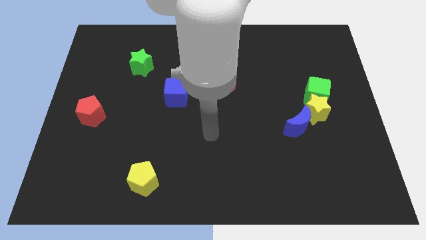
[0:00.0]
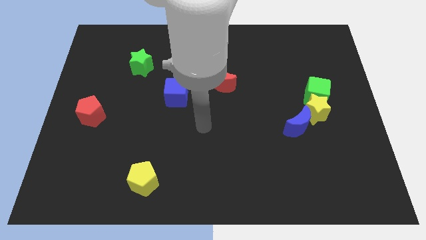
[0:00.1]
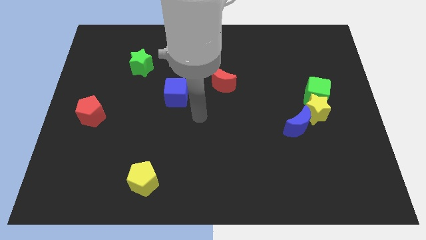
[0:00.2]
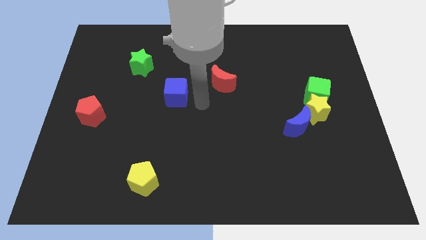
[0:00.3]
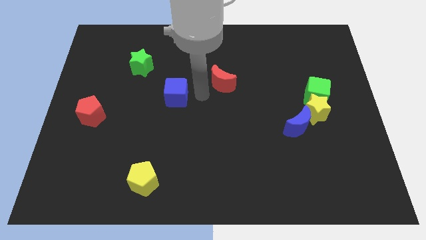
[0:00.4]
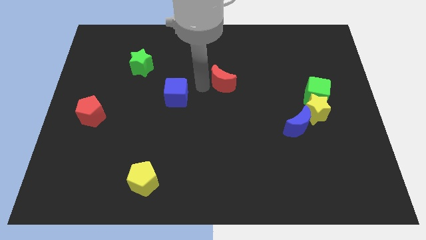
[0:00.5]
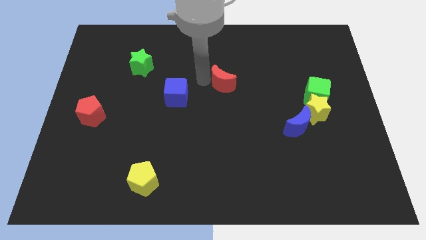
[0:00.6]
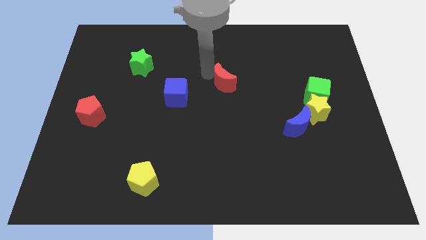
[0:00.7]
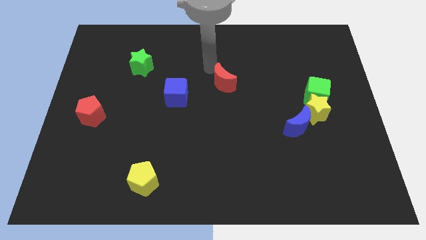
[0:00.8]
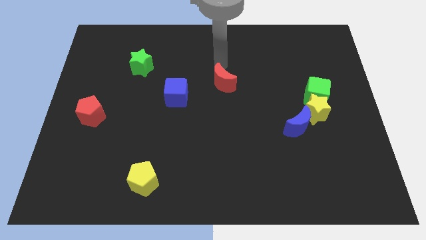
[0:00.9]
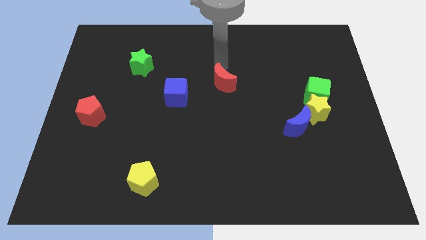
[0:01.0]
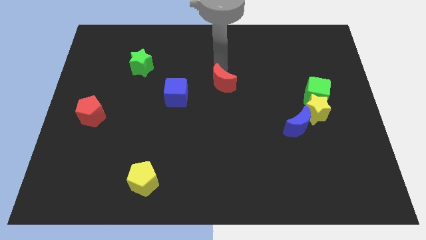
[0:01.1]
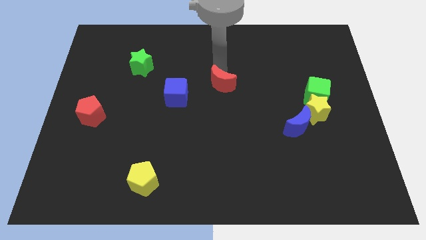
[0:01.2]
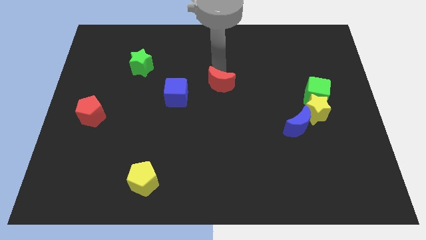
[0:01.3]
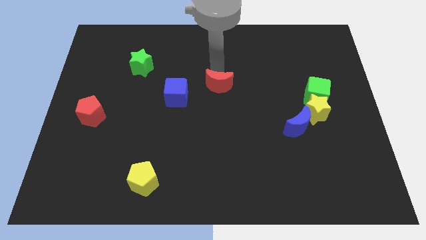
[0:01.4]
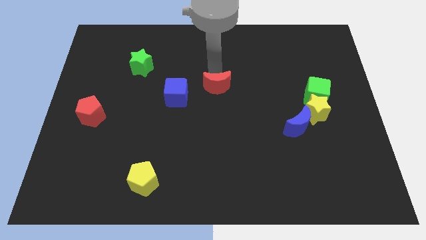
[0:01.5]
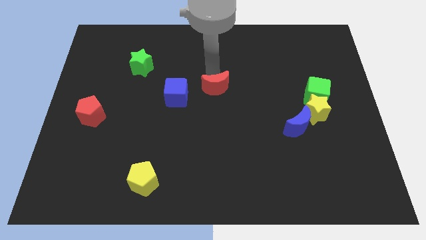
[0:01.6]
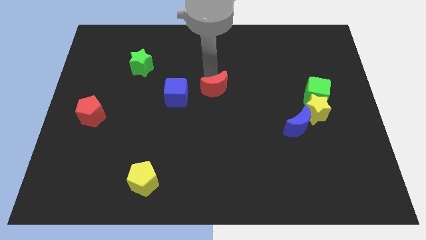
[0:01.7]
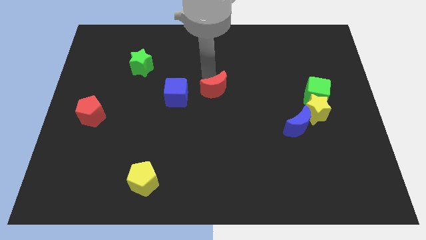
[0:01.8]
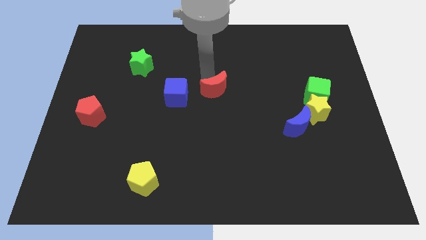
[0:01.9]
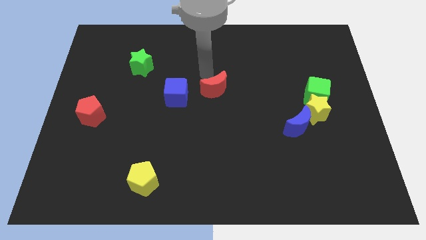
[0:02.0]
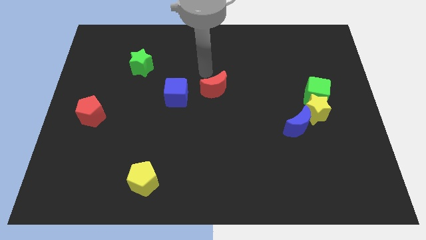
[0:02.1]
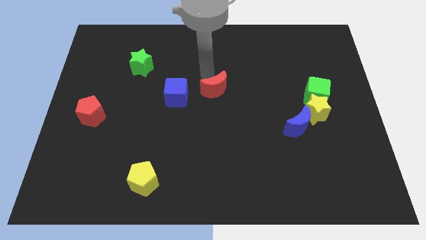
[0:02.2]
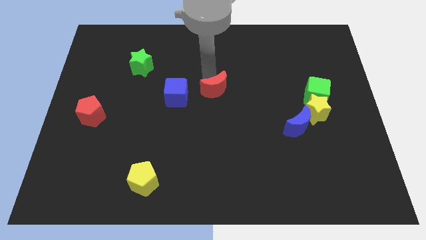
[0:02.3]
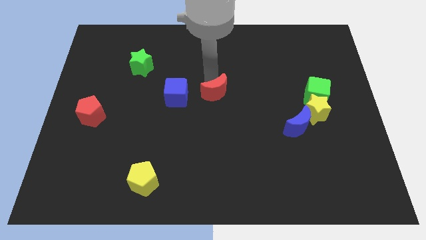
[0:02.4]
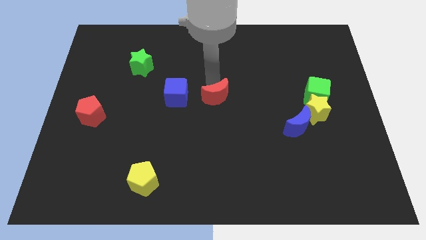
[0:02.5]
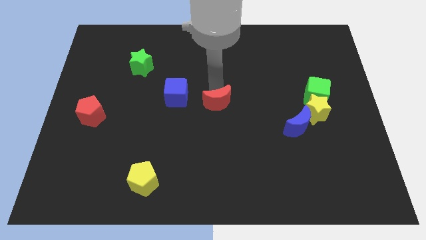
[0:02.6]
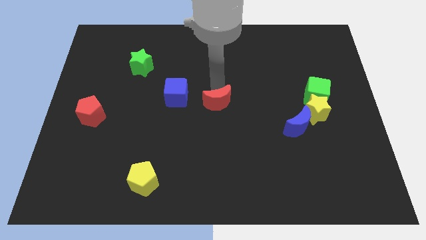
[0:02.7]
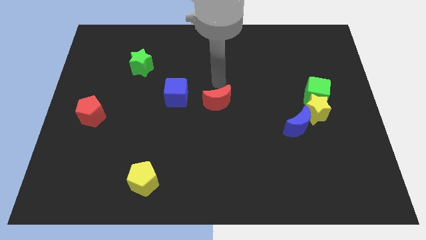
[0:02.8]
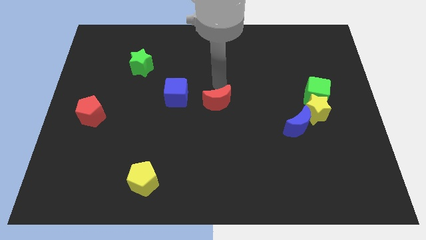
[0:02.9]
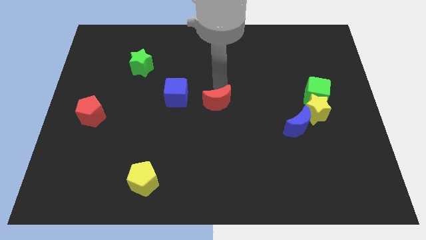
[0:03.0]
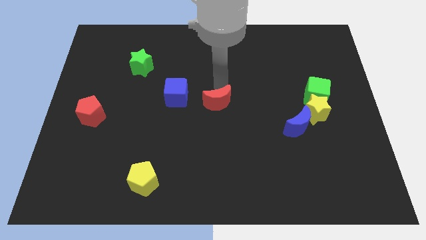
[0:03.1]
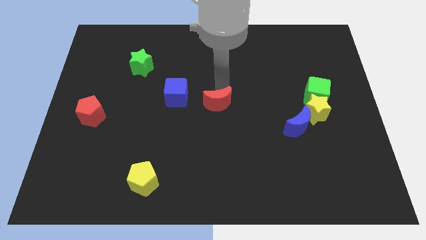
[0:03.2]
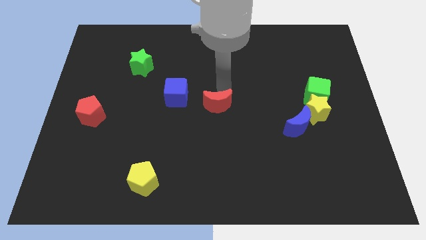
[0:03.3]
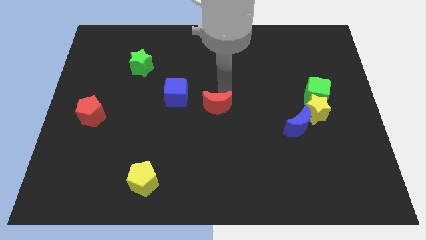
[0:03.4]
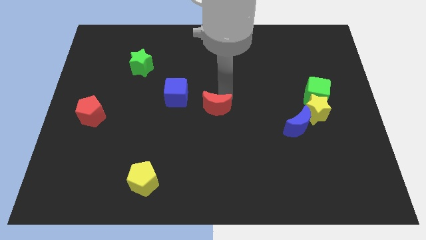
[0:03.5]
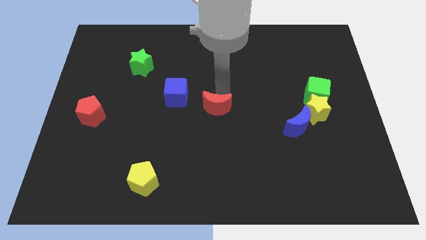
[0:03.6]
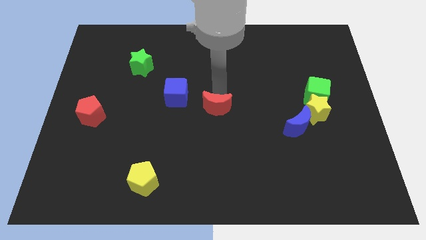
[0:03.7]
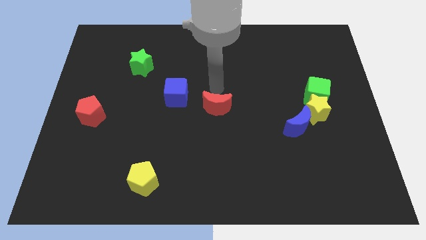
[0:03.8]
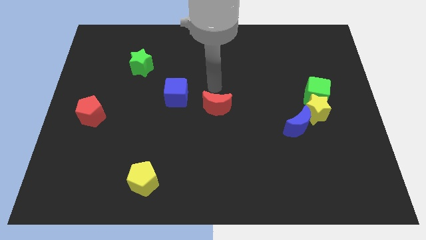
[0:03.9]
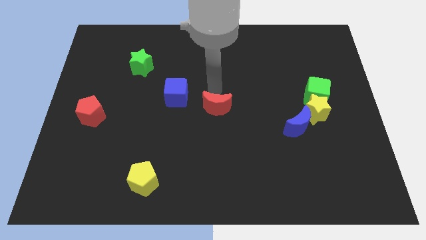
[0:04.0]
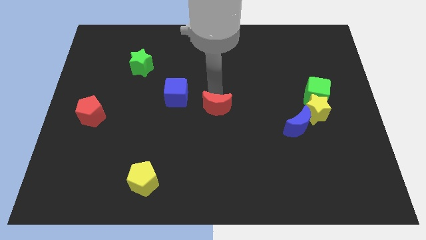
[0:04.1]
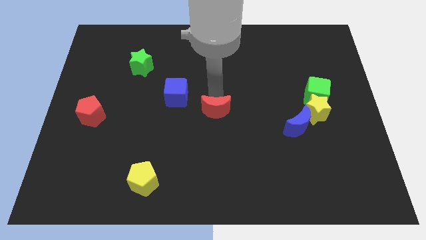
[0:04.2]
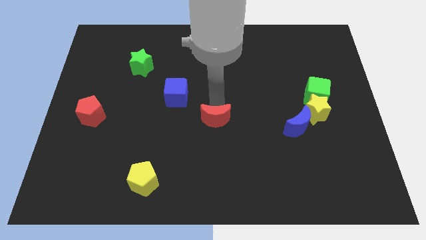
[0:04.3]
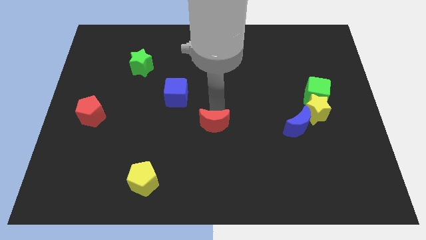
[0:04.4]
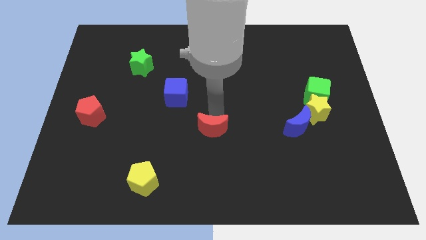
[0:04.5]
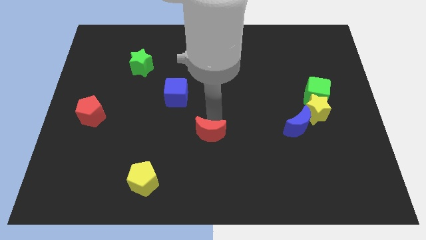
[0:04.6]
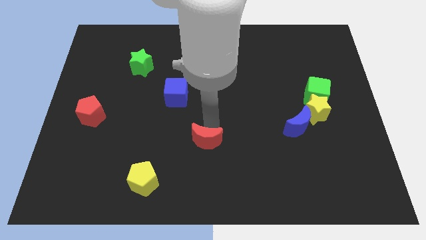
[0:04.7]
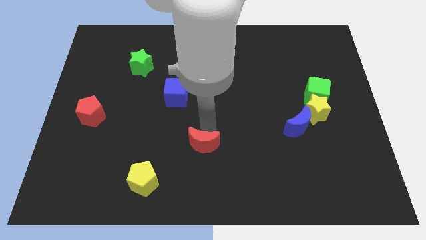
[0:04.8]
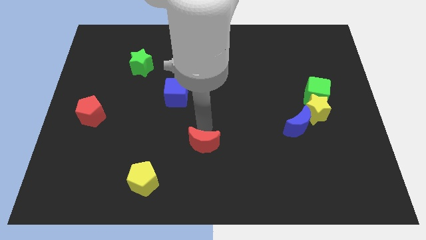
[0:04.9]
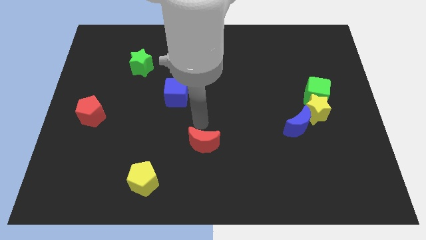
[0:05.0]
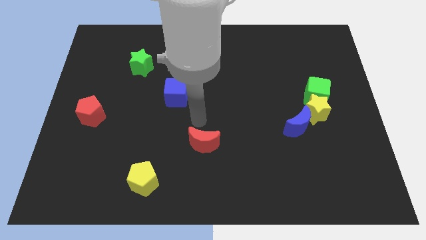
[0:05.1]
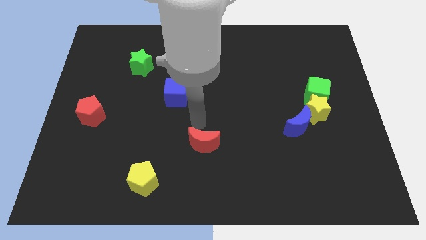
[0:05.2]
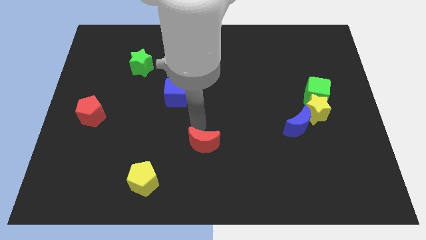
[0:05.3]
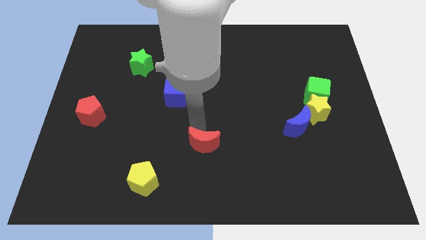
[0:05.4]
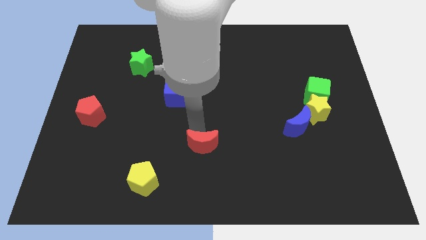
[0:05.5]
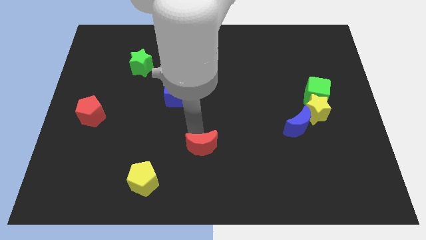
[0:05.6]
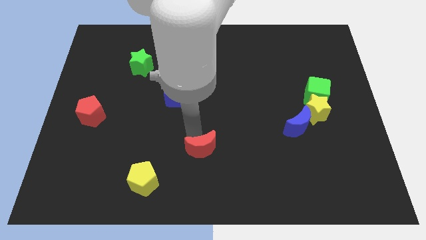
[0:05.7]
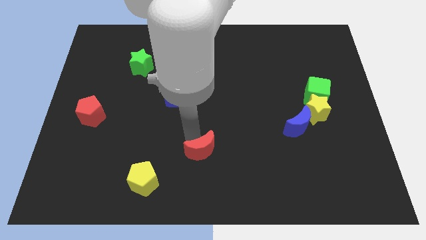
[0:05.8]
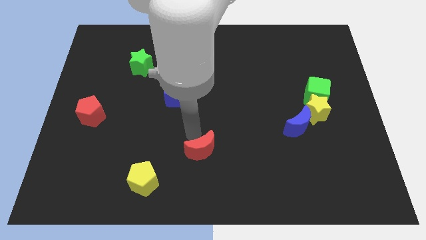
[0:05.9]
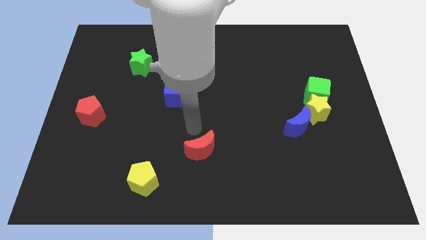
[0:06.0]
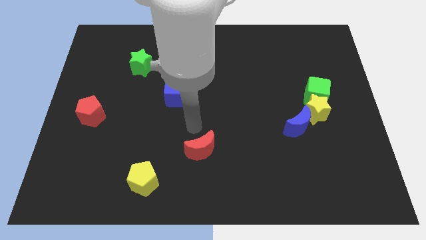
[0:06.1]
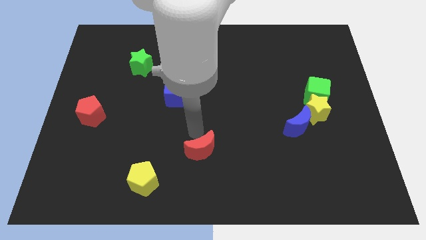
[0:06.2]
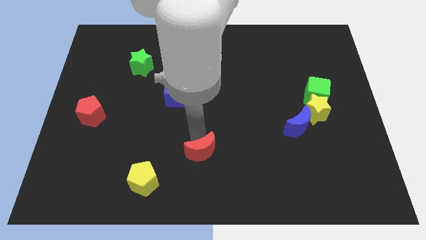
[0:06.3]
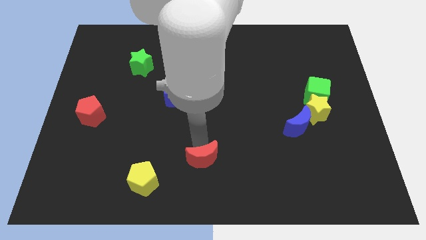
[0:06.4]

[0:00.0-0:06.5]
slide the red moon to the bottom
